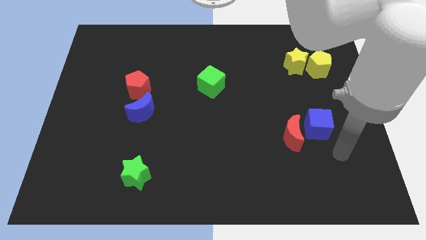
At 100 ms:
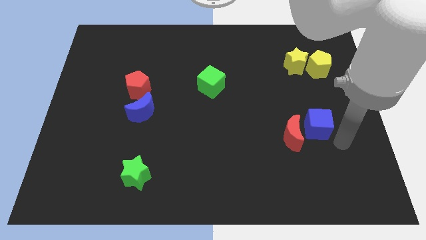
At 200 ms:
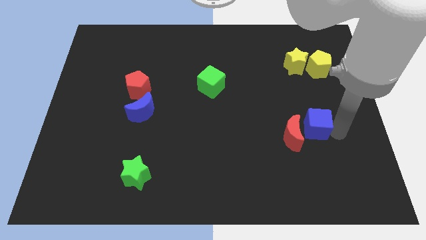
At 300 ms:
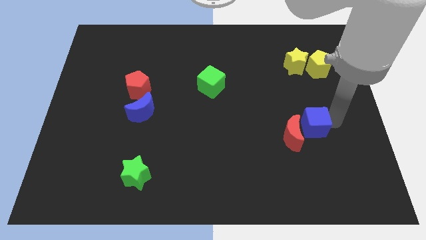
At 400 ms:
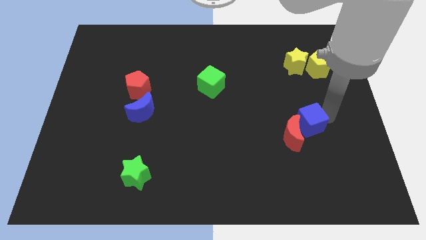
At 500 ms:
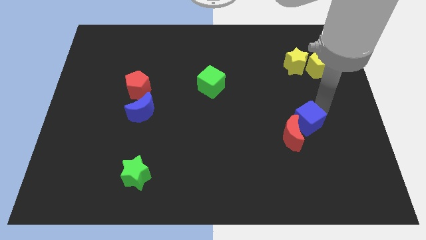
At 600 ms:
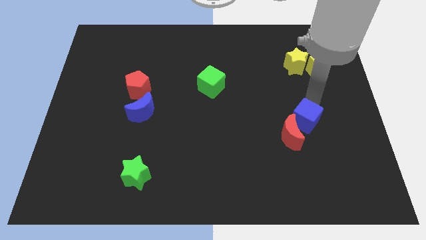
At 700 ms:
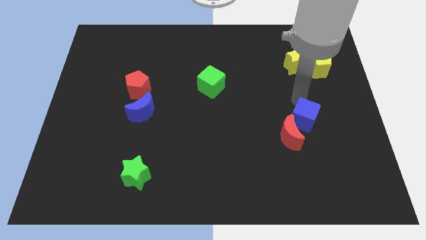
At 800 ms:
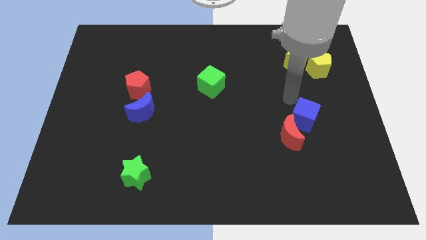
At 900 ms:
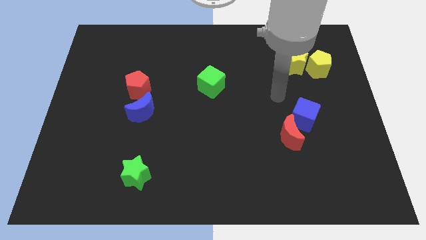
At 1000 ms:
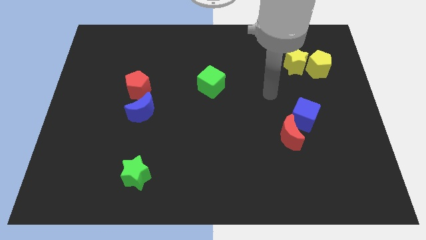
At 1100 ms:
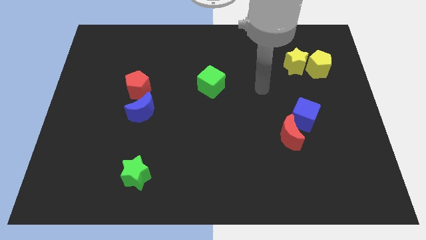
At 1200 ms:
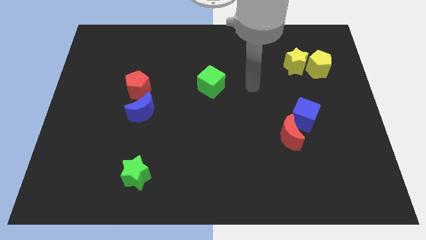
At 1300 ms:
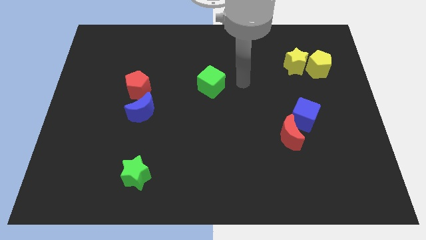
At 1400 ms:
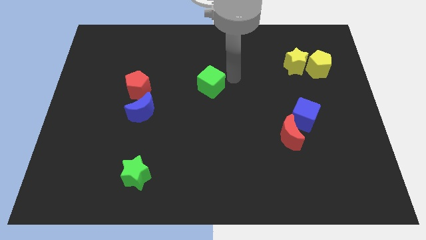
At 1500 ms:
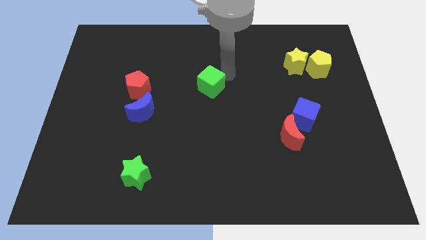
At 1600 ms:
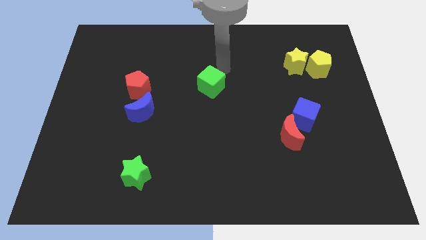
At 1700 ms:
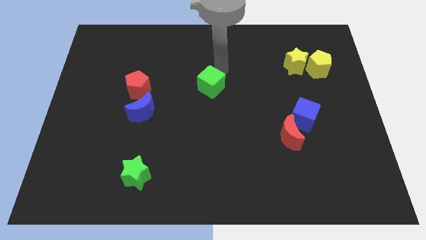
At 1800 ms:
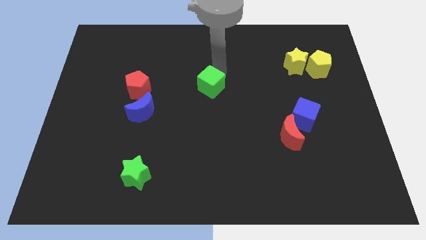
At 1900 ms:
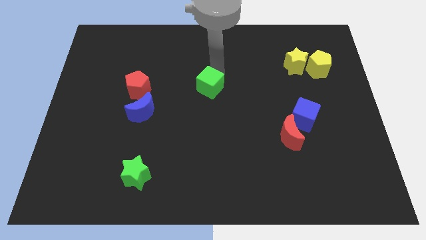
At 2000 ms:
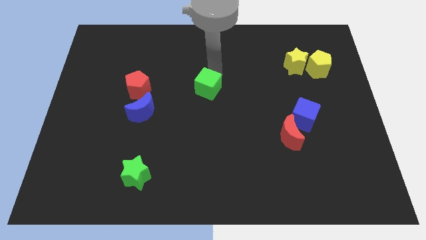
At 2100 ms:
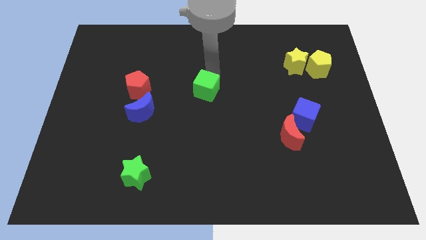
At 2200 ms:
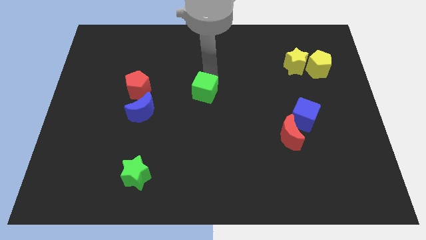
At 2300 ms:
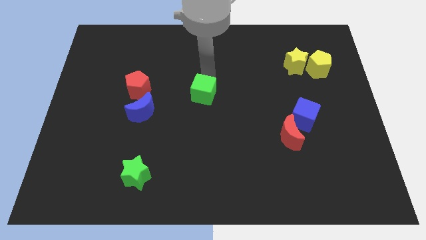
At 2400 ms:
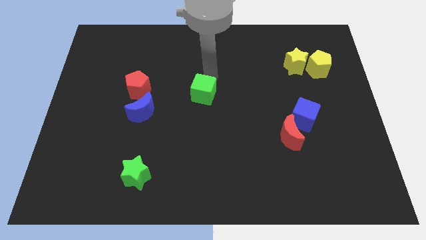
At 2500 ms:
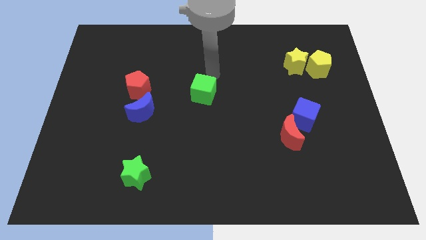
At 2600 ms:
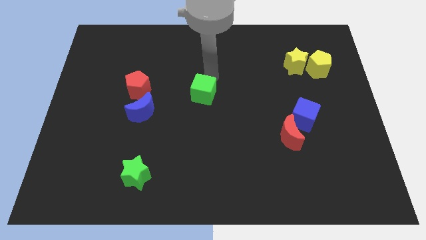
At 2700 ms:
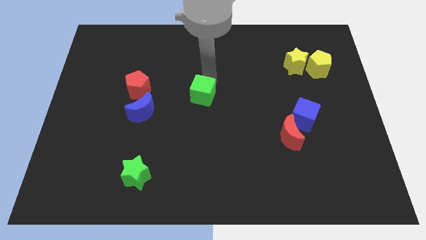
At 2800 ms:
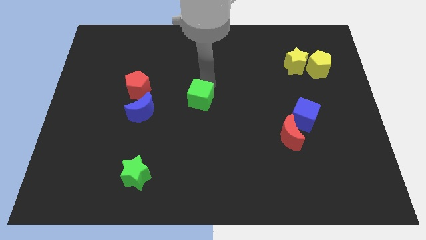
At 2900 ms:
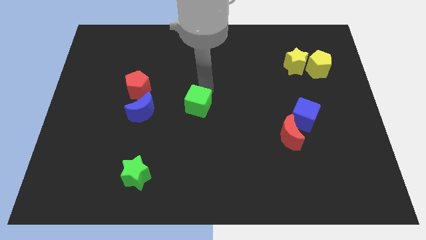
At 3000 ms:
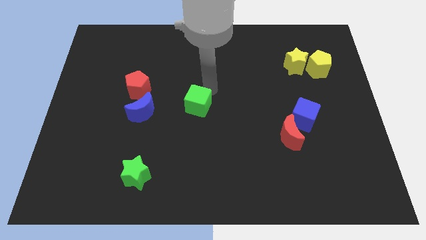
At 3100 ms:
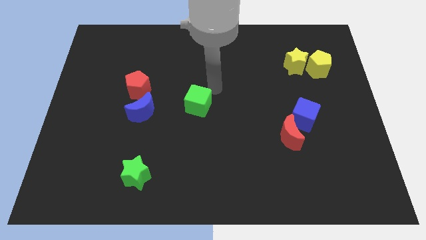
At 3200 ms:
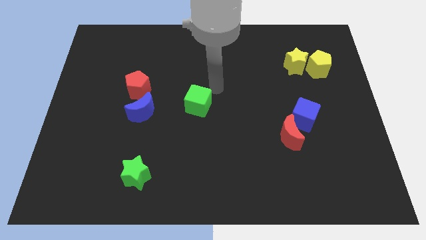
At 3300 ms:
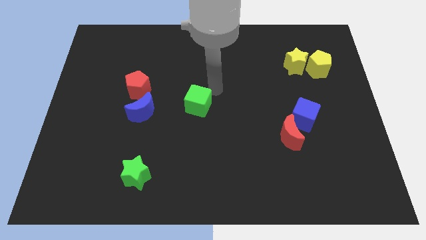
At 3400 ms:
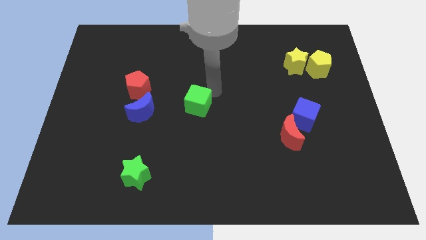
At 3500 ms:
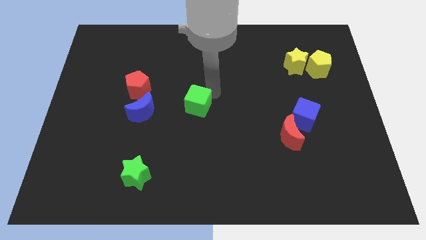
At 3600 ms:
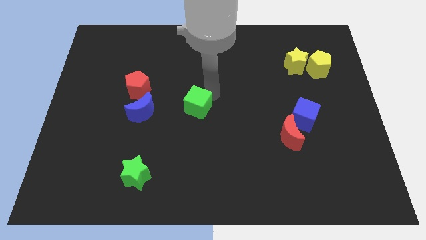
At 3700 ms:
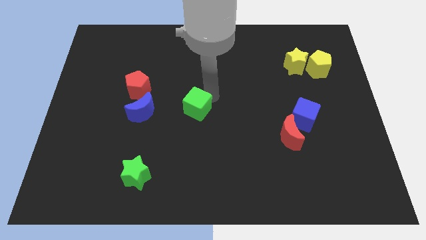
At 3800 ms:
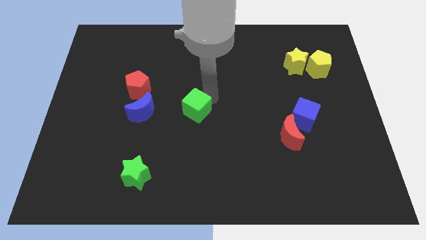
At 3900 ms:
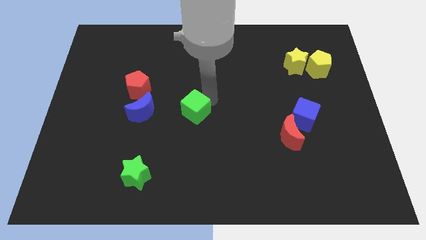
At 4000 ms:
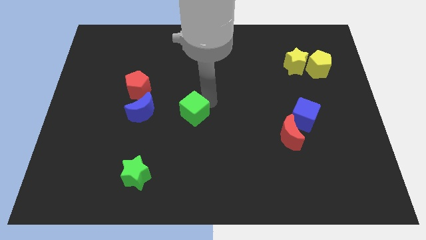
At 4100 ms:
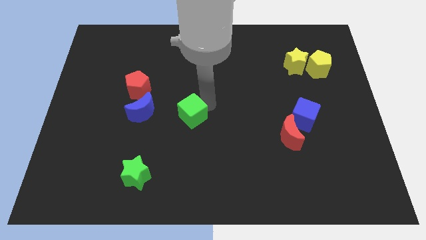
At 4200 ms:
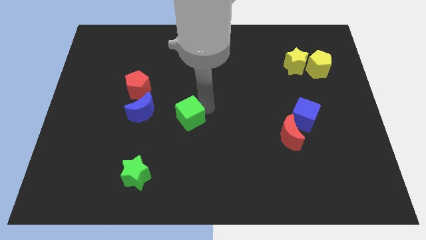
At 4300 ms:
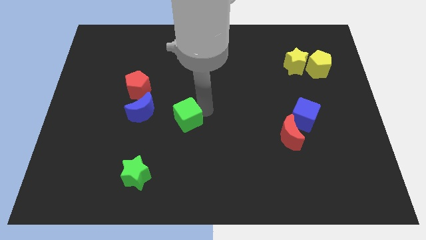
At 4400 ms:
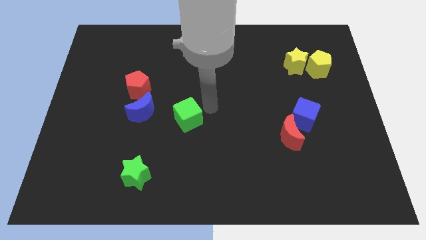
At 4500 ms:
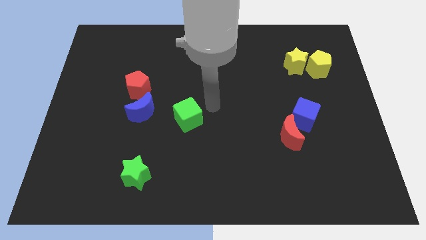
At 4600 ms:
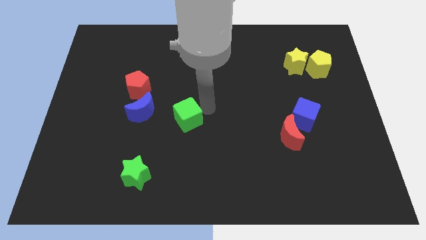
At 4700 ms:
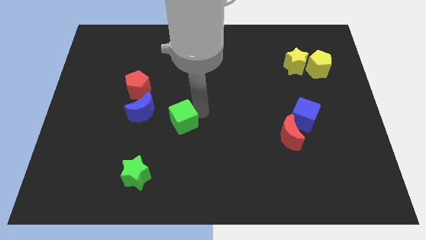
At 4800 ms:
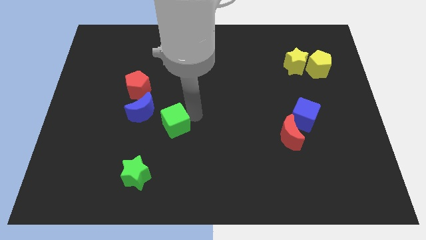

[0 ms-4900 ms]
push the green cube to the bottom right side of the blue moon

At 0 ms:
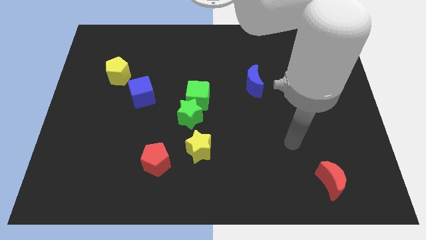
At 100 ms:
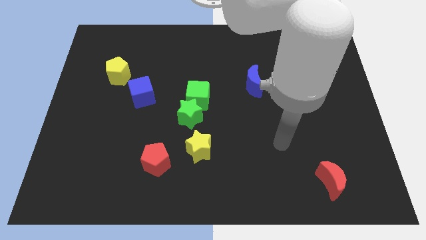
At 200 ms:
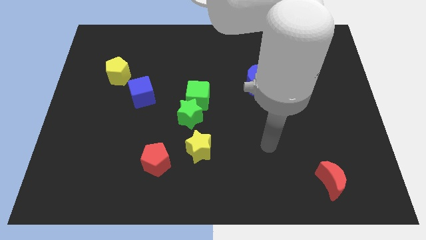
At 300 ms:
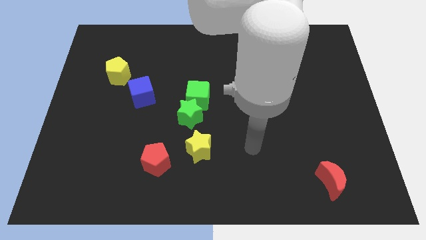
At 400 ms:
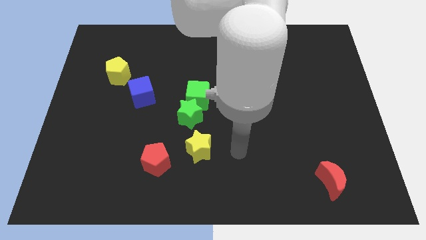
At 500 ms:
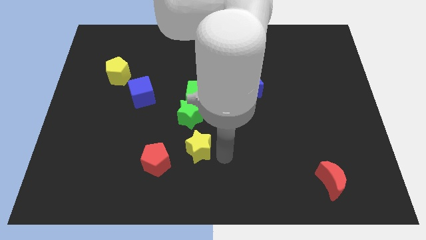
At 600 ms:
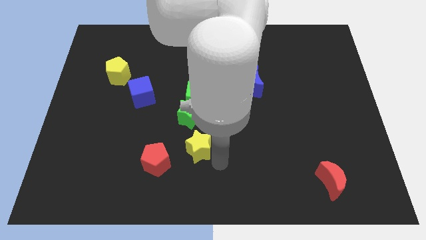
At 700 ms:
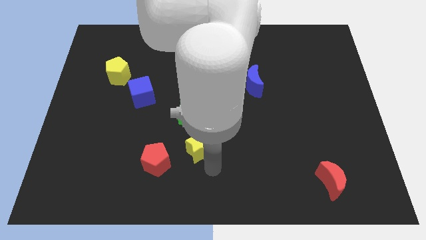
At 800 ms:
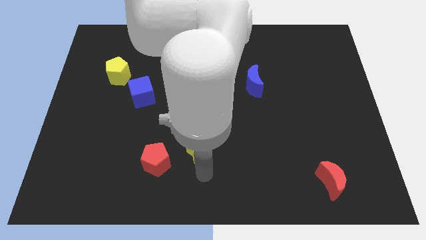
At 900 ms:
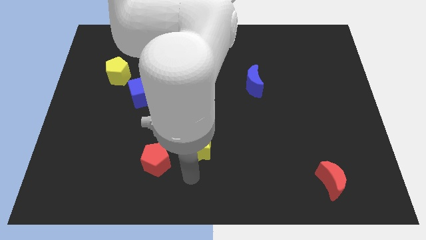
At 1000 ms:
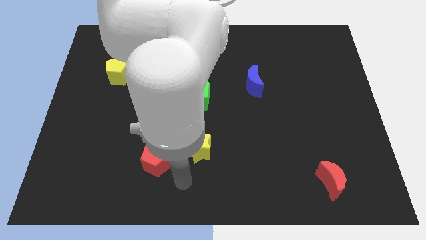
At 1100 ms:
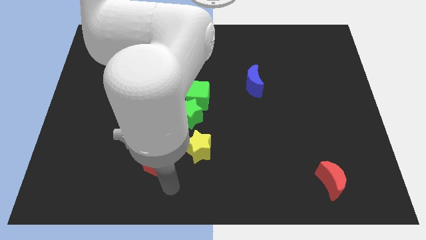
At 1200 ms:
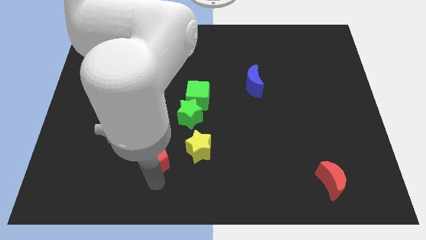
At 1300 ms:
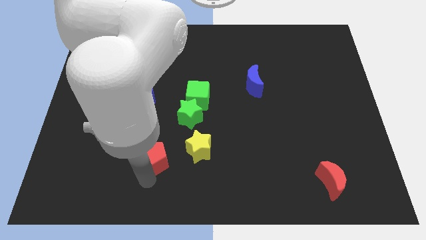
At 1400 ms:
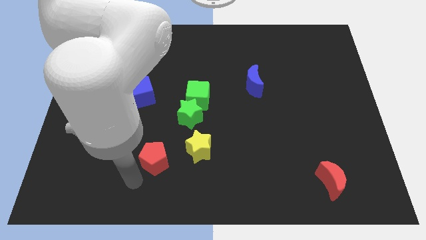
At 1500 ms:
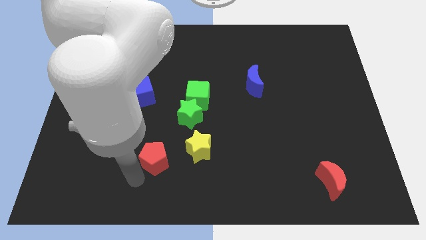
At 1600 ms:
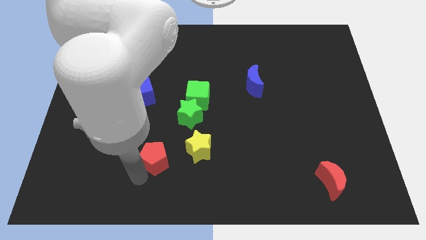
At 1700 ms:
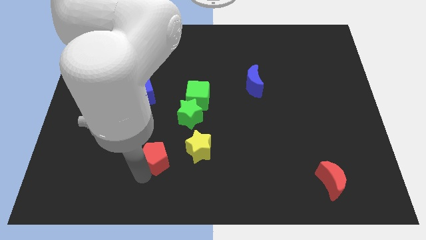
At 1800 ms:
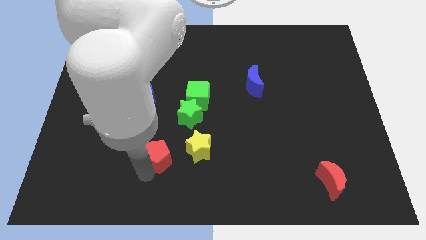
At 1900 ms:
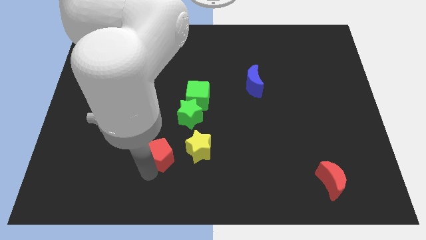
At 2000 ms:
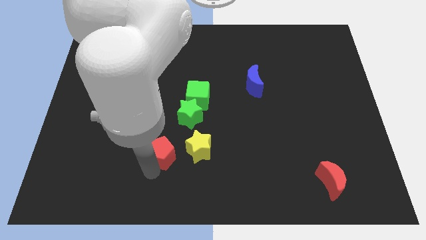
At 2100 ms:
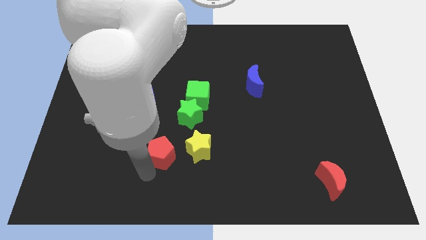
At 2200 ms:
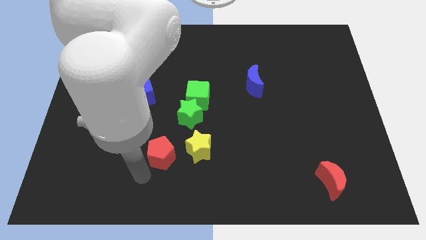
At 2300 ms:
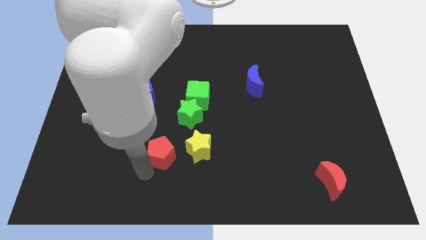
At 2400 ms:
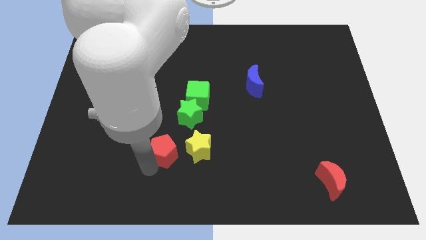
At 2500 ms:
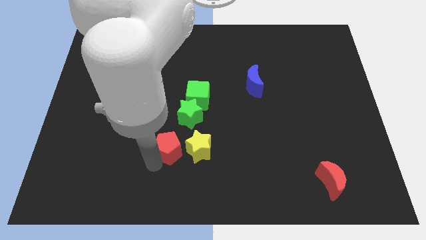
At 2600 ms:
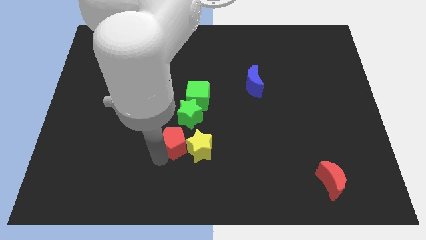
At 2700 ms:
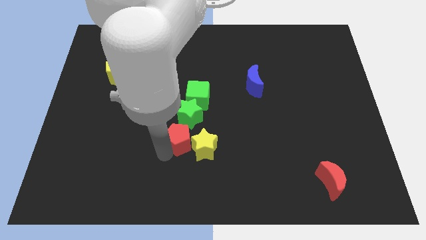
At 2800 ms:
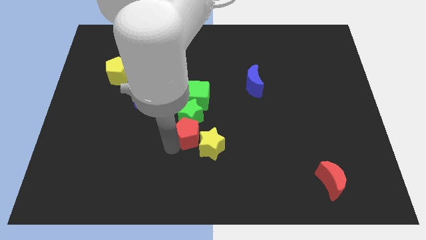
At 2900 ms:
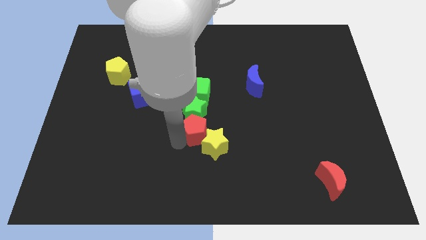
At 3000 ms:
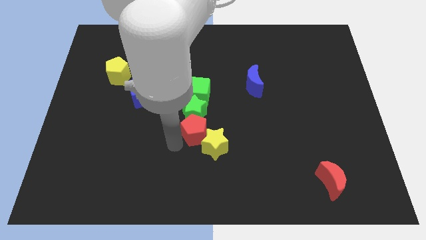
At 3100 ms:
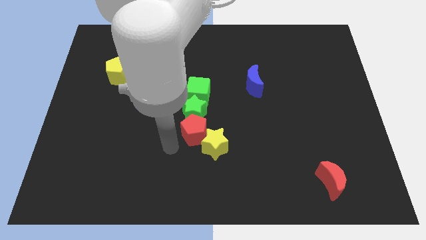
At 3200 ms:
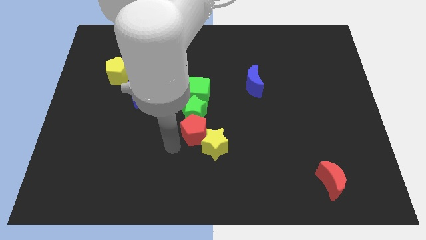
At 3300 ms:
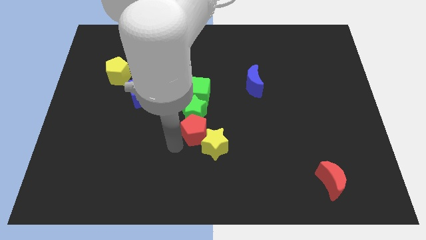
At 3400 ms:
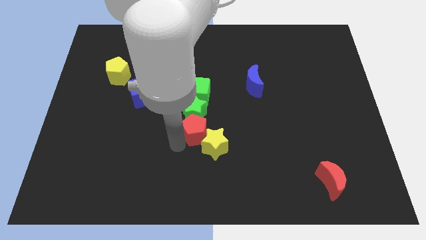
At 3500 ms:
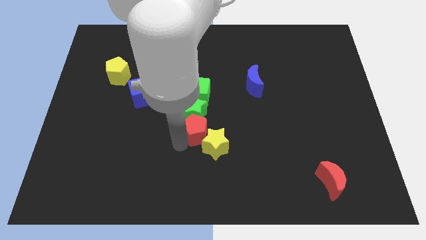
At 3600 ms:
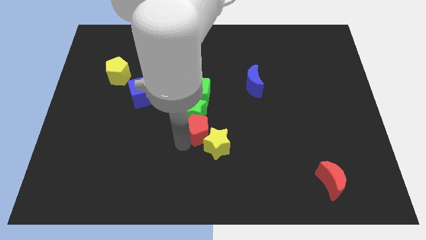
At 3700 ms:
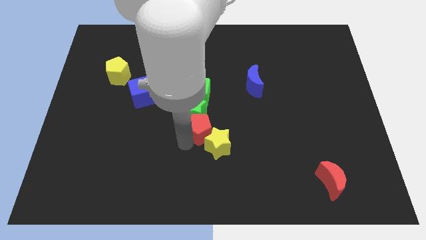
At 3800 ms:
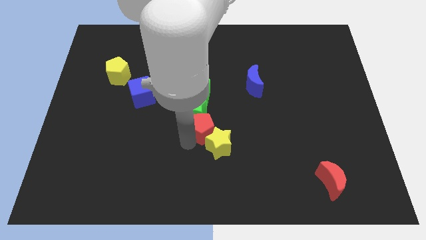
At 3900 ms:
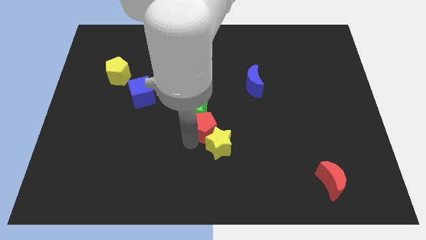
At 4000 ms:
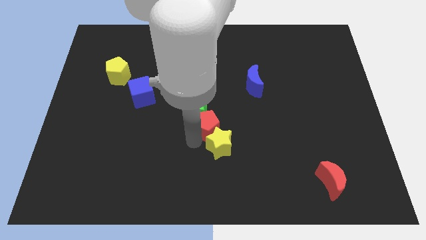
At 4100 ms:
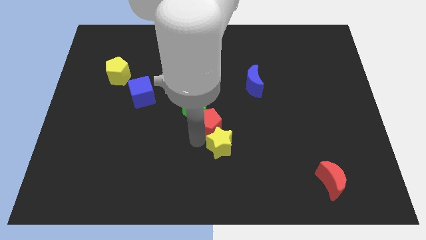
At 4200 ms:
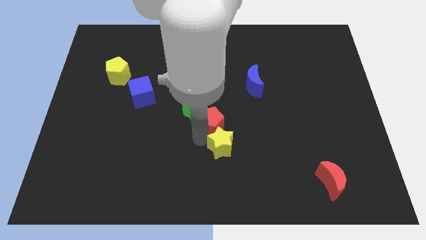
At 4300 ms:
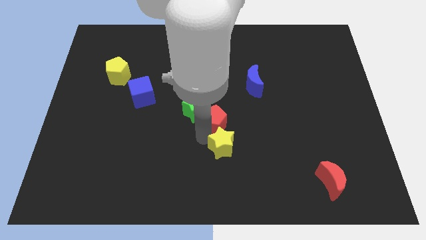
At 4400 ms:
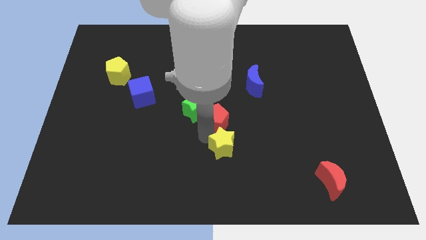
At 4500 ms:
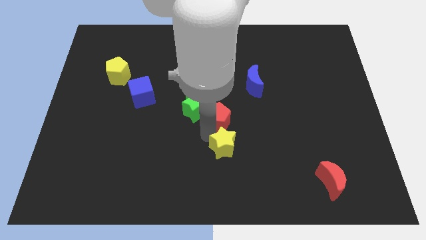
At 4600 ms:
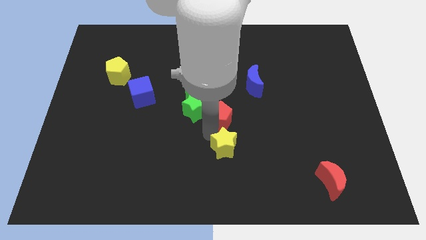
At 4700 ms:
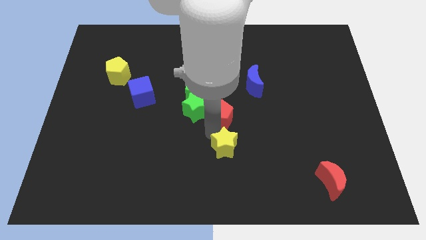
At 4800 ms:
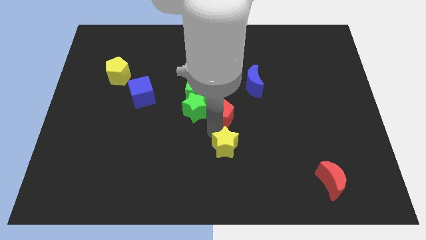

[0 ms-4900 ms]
move the red pentagon to the bottom left of the blue moon
